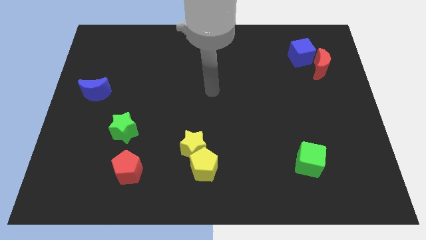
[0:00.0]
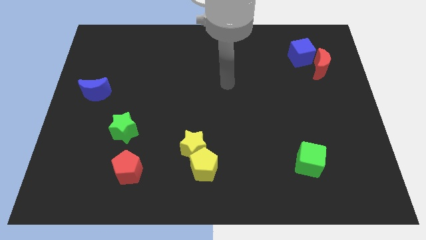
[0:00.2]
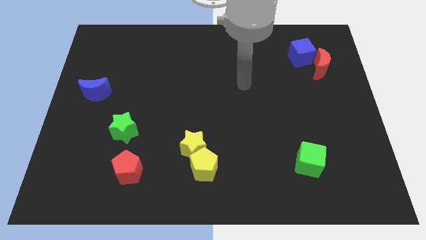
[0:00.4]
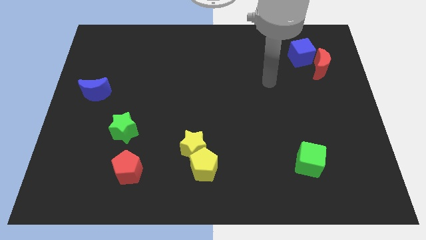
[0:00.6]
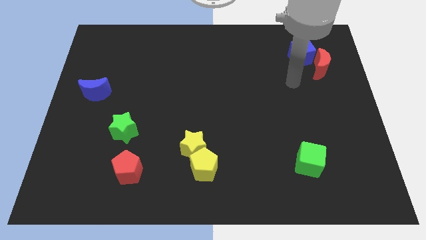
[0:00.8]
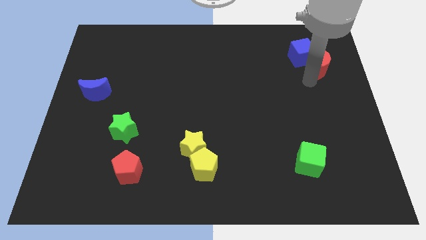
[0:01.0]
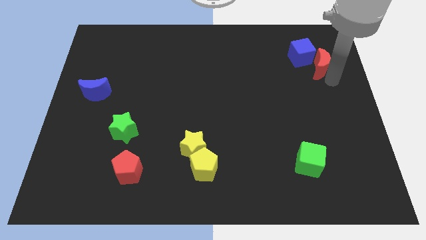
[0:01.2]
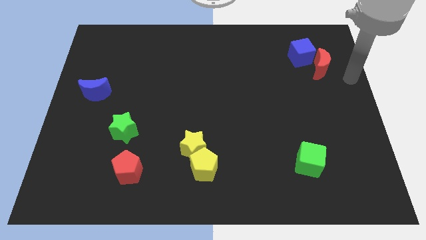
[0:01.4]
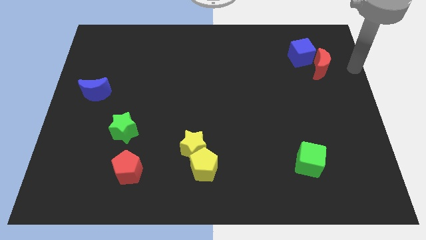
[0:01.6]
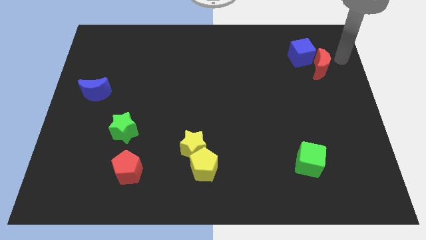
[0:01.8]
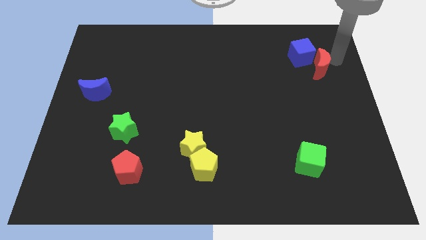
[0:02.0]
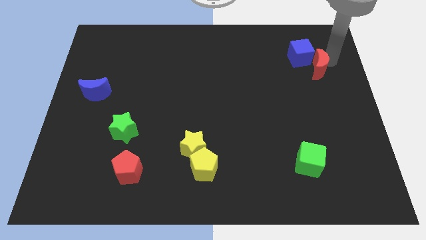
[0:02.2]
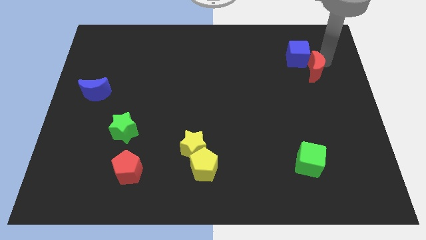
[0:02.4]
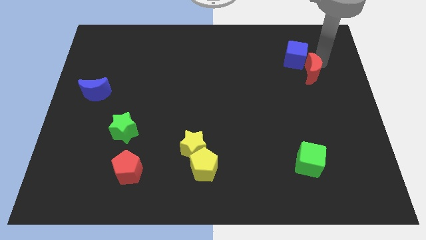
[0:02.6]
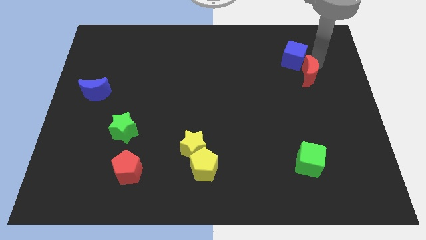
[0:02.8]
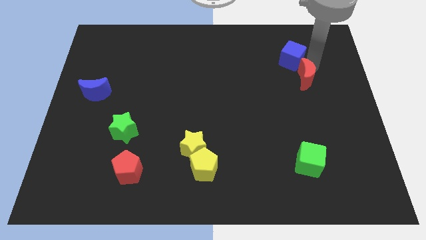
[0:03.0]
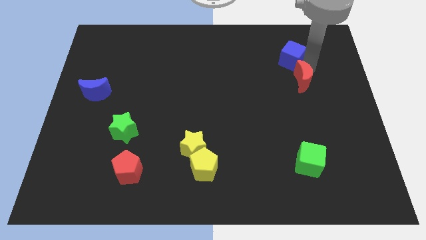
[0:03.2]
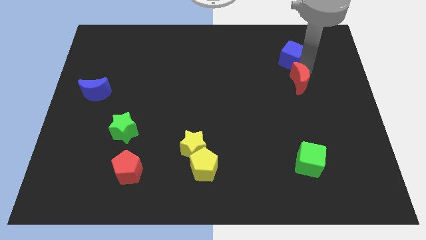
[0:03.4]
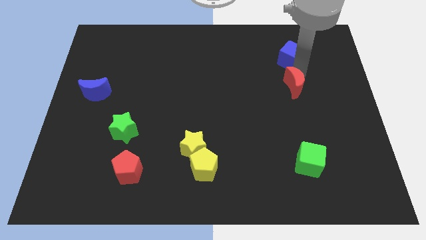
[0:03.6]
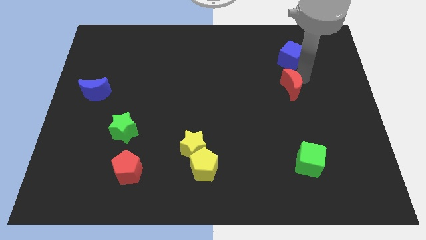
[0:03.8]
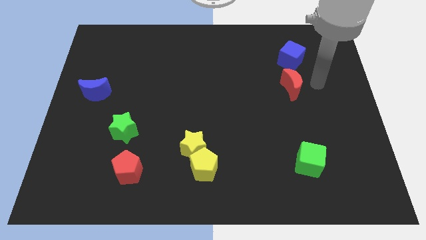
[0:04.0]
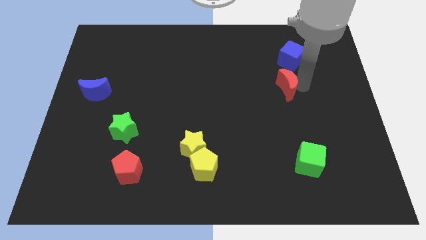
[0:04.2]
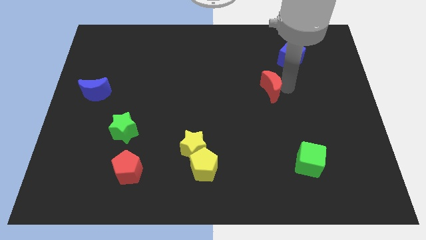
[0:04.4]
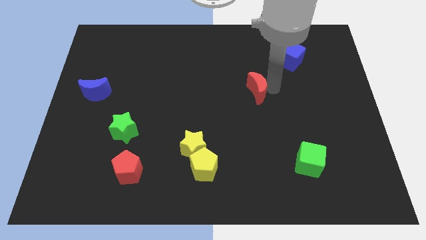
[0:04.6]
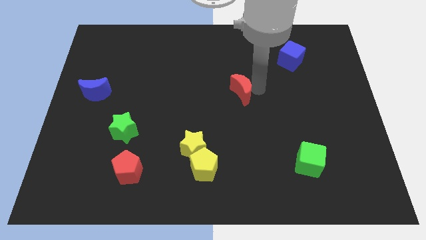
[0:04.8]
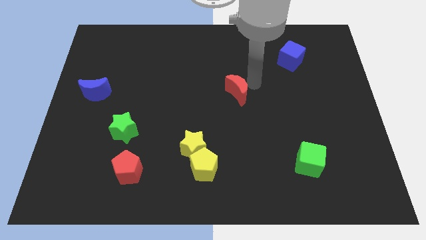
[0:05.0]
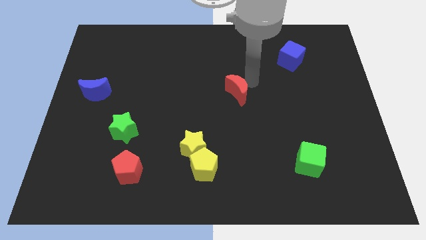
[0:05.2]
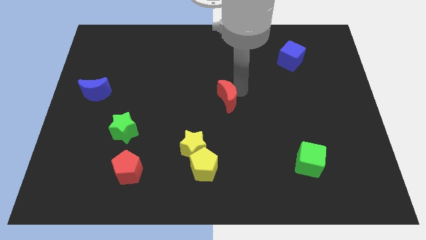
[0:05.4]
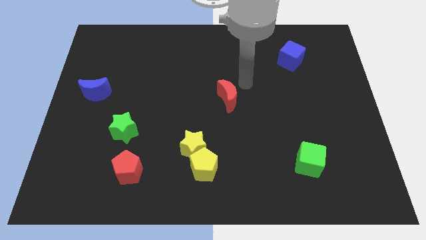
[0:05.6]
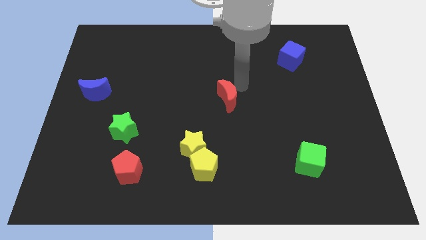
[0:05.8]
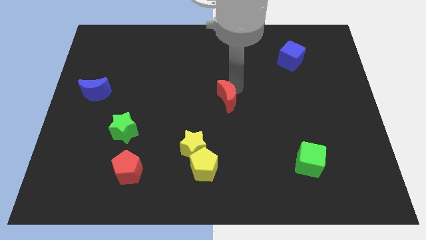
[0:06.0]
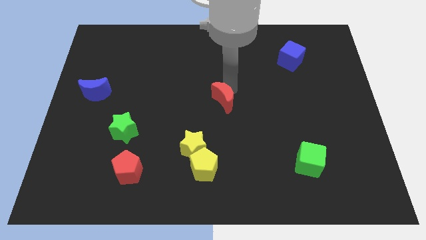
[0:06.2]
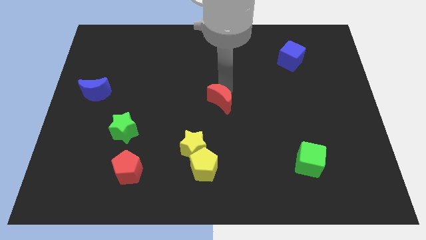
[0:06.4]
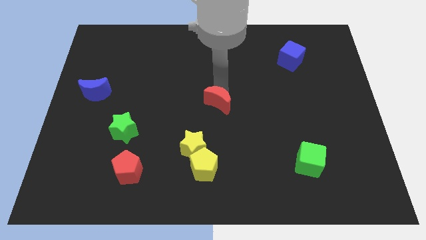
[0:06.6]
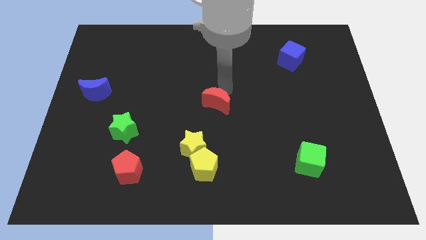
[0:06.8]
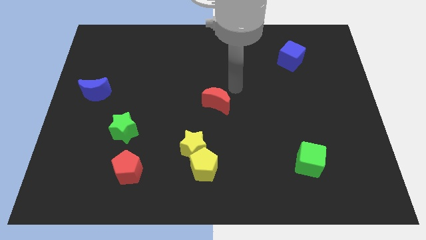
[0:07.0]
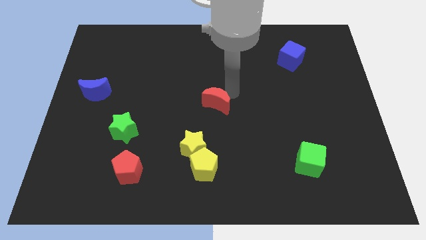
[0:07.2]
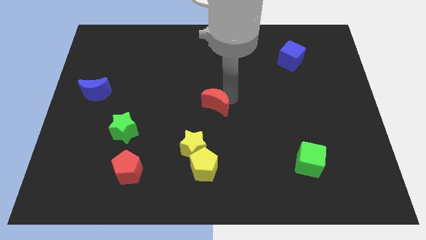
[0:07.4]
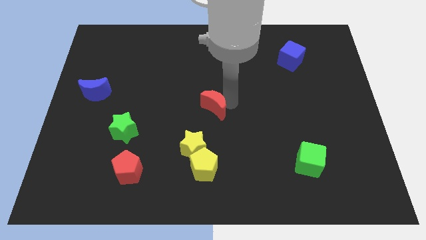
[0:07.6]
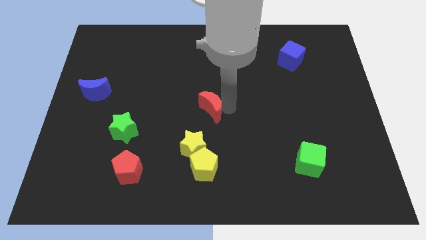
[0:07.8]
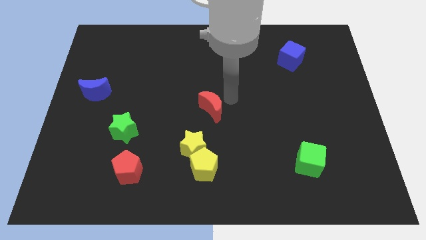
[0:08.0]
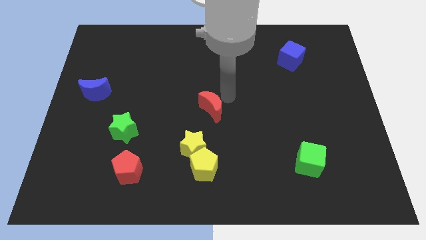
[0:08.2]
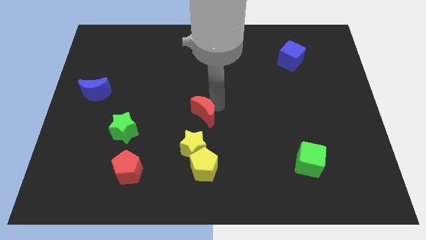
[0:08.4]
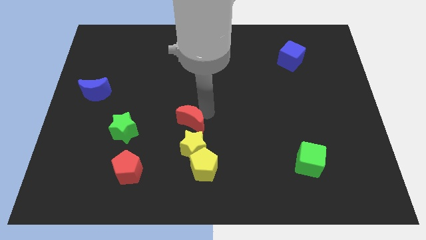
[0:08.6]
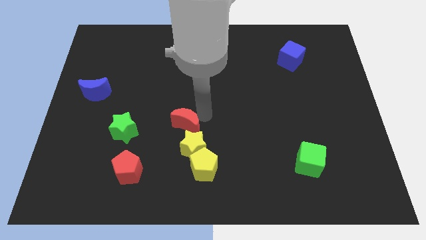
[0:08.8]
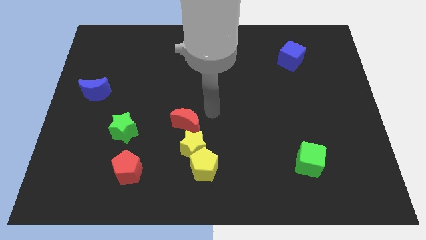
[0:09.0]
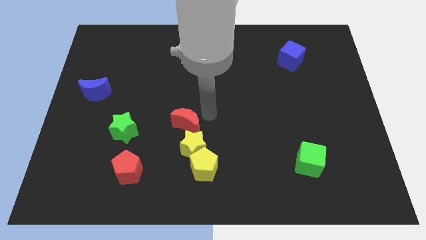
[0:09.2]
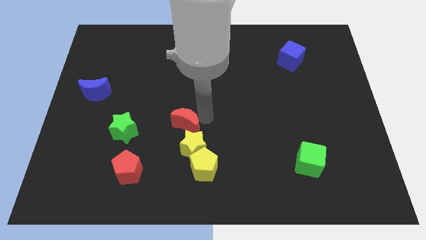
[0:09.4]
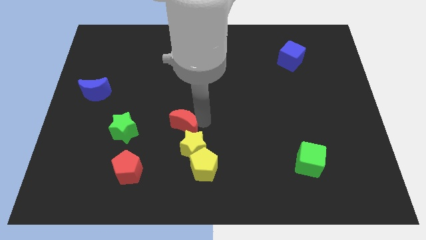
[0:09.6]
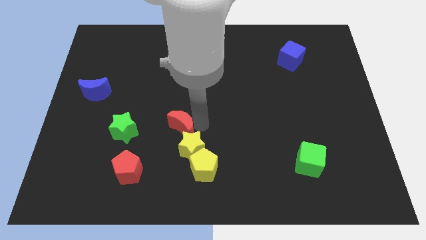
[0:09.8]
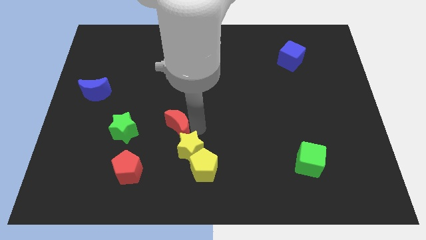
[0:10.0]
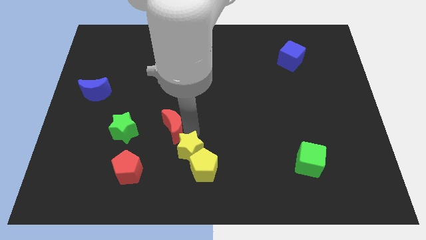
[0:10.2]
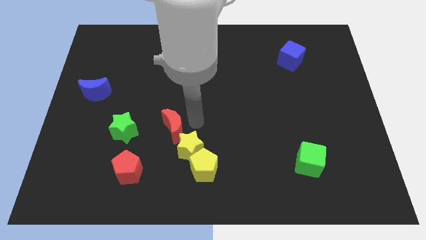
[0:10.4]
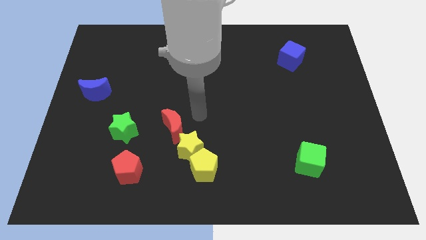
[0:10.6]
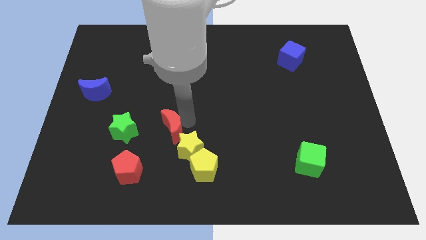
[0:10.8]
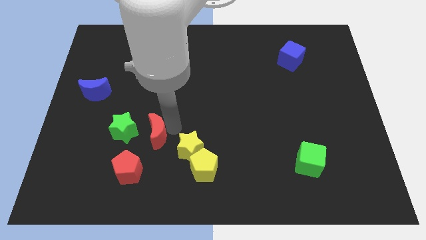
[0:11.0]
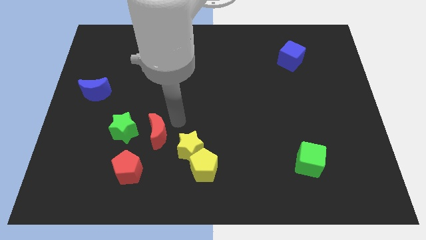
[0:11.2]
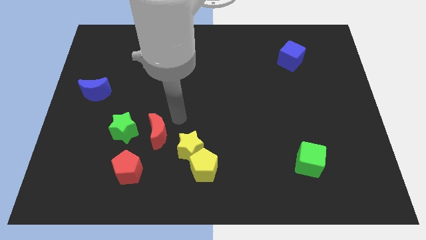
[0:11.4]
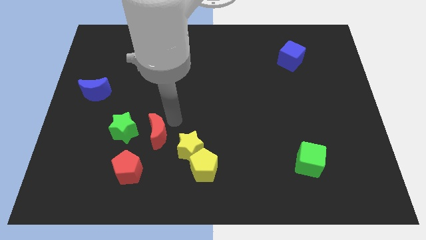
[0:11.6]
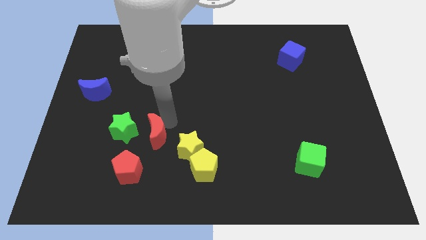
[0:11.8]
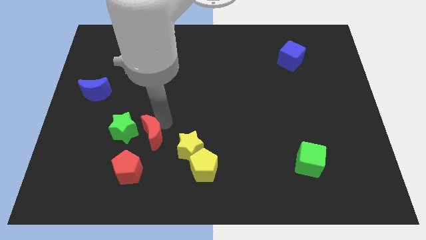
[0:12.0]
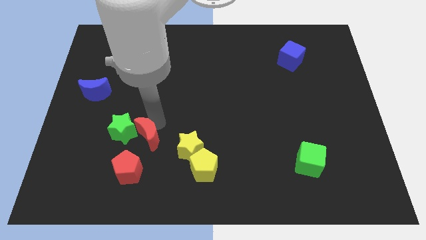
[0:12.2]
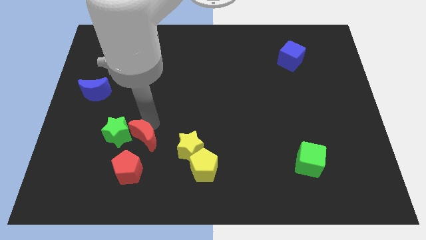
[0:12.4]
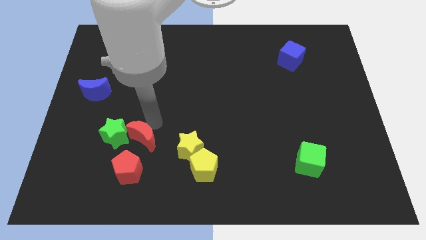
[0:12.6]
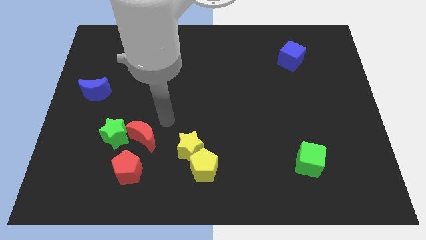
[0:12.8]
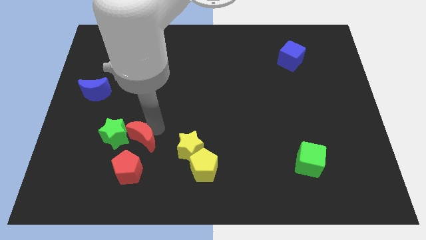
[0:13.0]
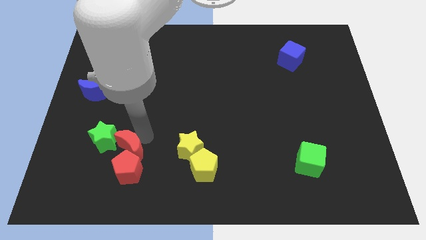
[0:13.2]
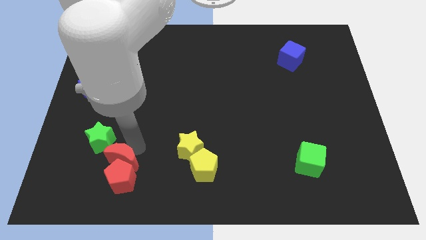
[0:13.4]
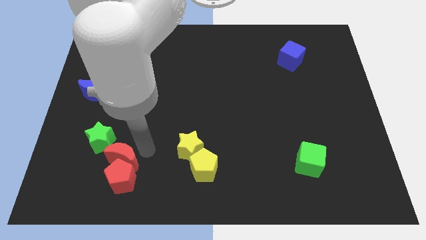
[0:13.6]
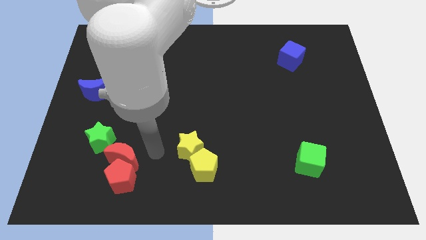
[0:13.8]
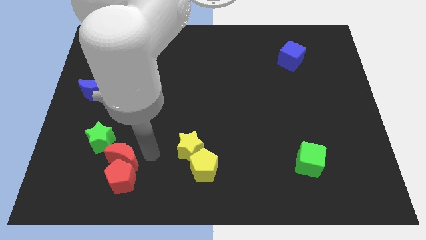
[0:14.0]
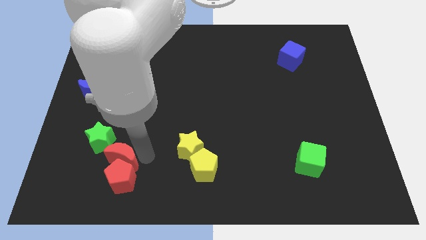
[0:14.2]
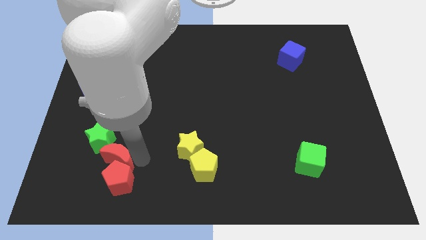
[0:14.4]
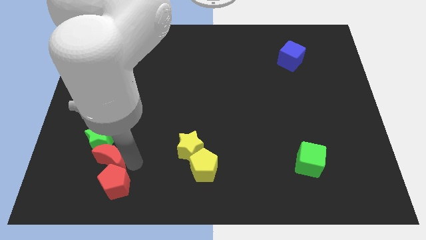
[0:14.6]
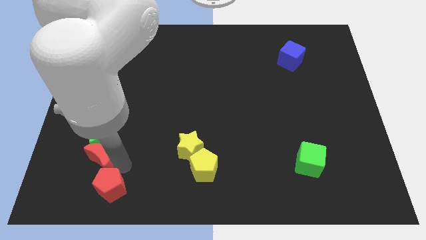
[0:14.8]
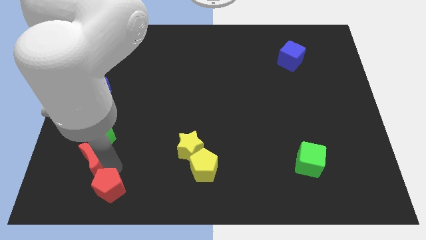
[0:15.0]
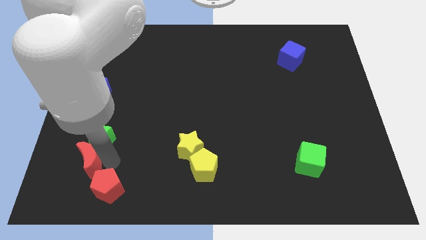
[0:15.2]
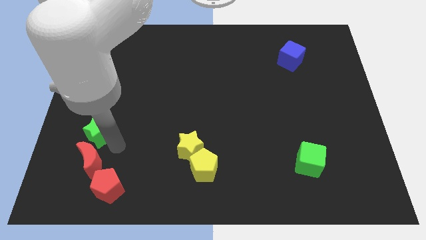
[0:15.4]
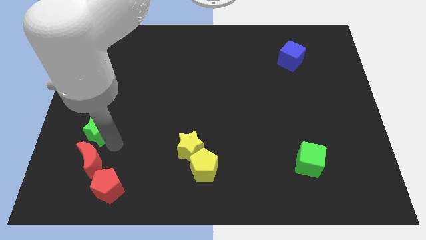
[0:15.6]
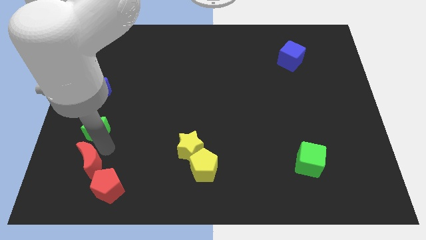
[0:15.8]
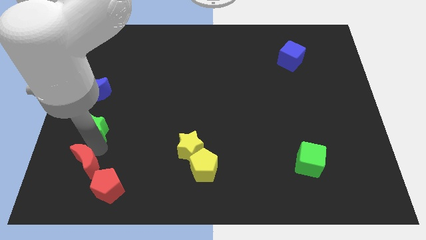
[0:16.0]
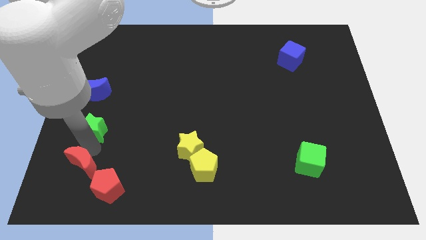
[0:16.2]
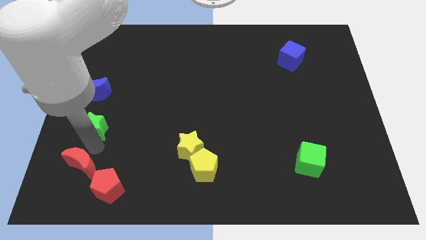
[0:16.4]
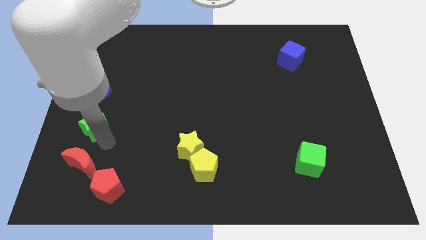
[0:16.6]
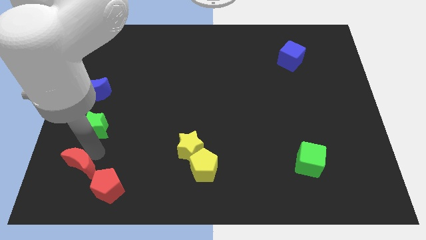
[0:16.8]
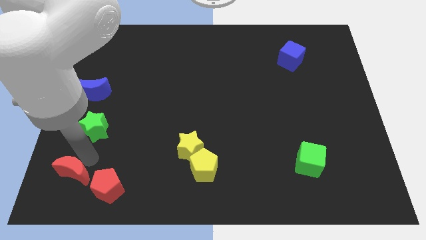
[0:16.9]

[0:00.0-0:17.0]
move the red moon to the left side of the red pentagon
